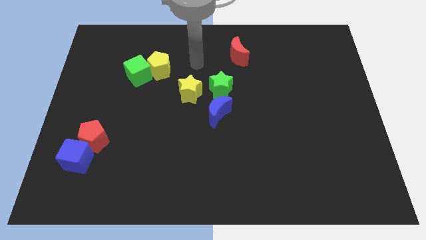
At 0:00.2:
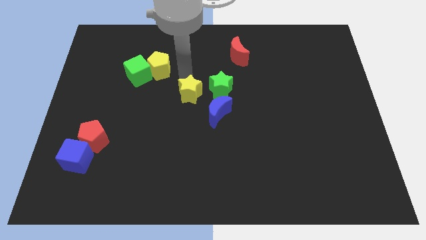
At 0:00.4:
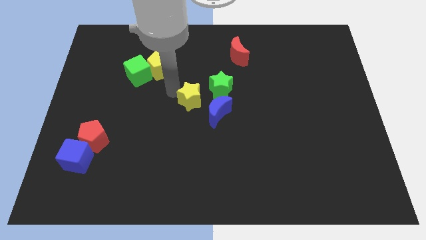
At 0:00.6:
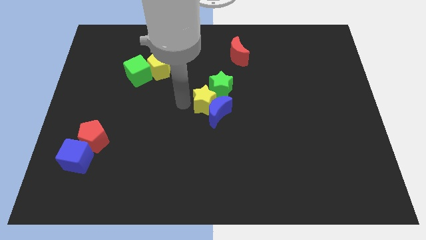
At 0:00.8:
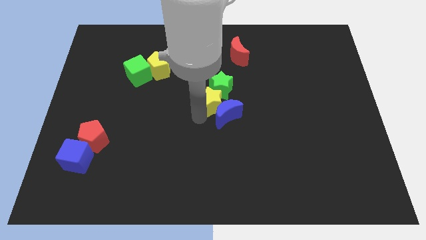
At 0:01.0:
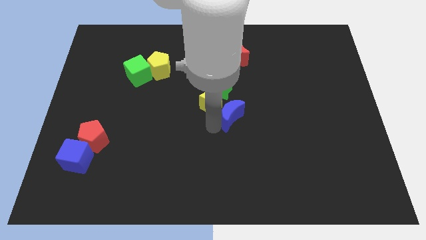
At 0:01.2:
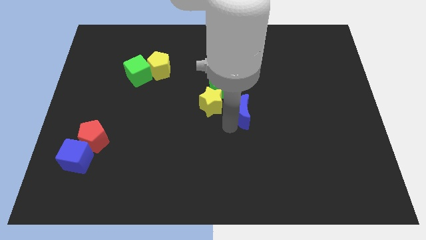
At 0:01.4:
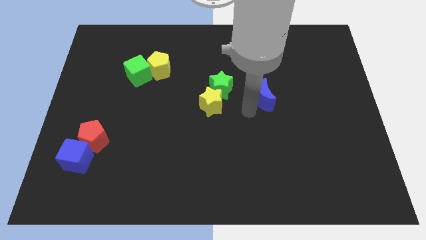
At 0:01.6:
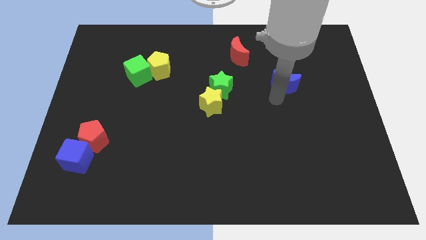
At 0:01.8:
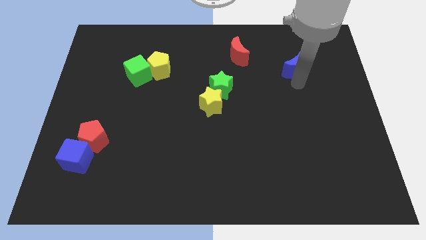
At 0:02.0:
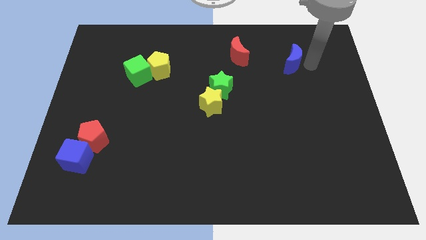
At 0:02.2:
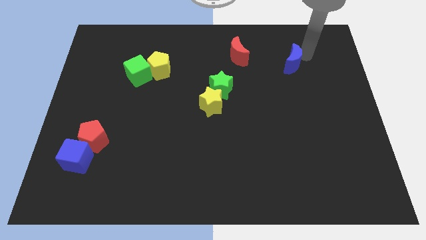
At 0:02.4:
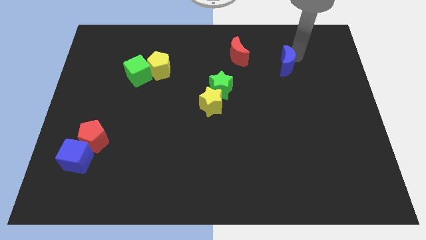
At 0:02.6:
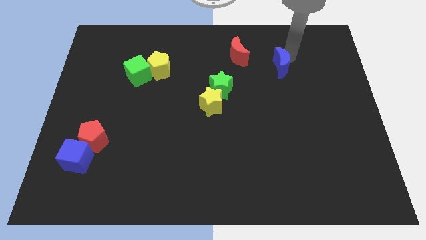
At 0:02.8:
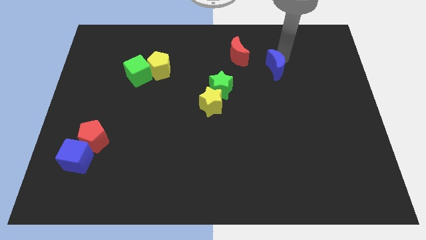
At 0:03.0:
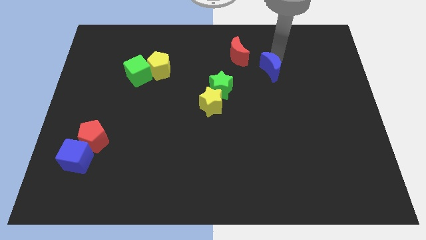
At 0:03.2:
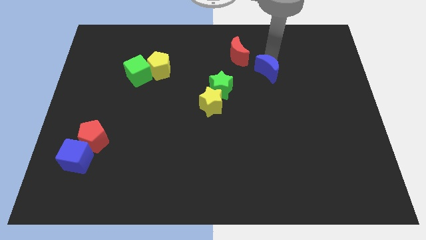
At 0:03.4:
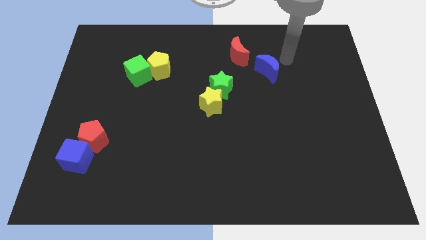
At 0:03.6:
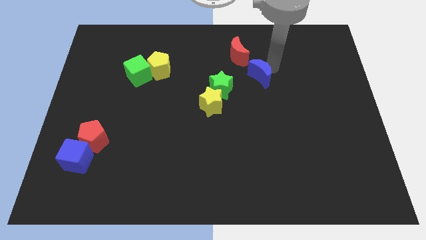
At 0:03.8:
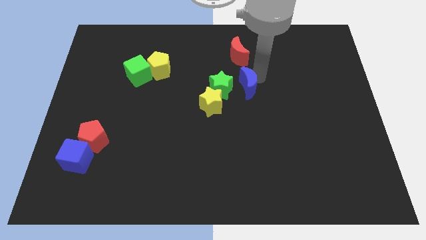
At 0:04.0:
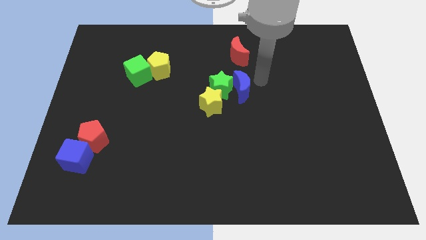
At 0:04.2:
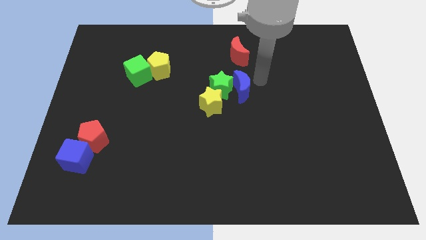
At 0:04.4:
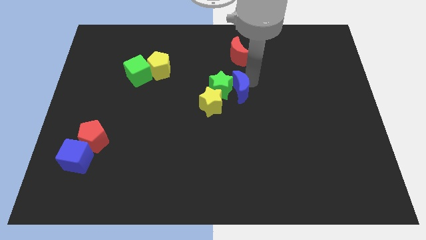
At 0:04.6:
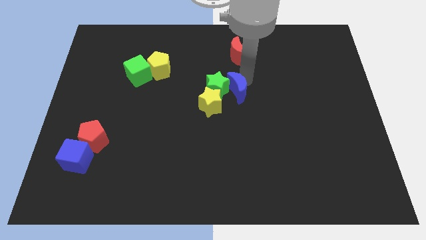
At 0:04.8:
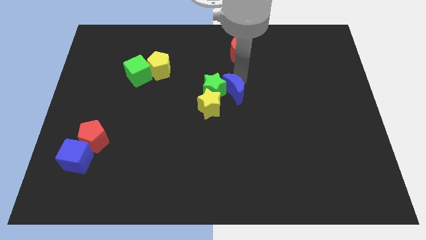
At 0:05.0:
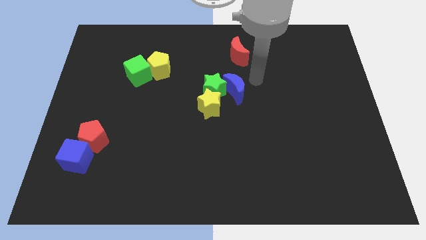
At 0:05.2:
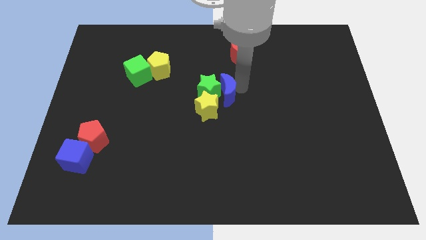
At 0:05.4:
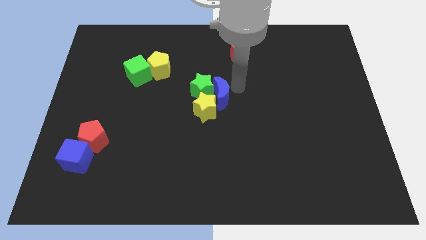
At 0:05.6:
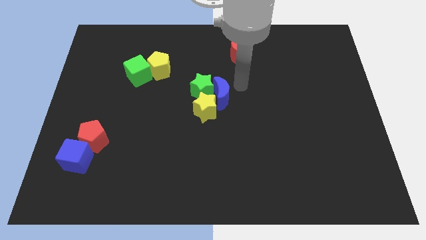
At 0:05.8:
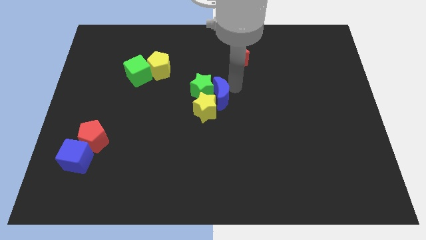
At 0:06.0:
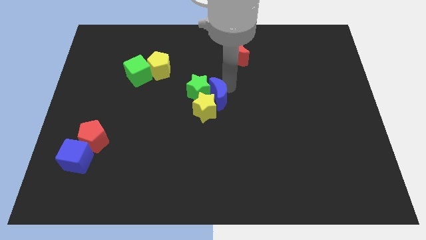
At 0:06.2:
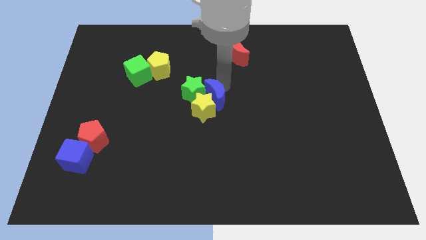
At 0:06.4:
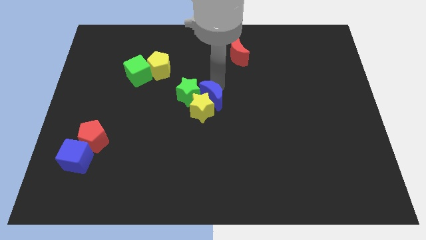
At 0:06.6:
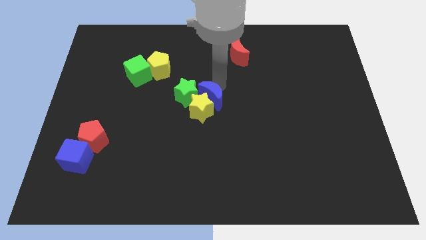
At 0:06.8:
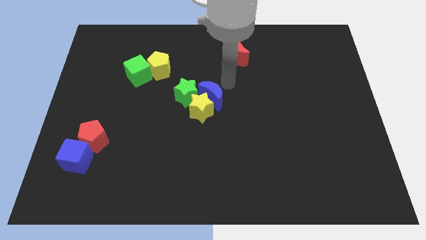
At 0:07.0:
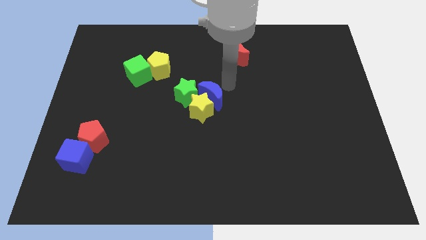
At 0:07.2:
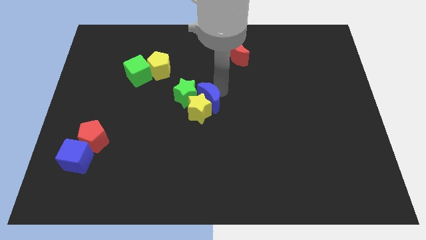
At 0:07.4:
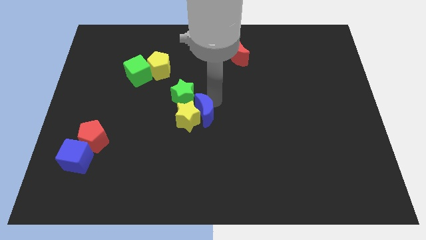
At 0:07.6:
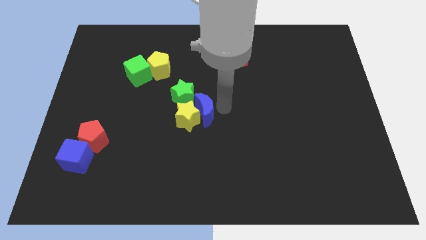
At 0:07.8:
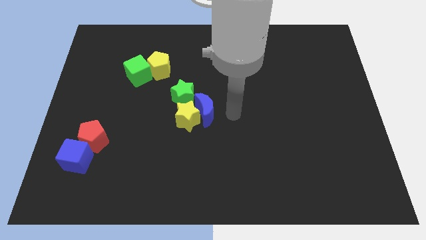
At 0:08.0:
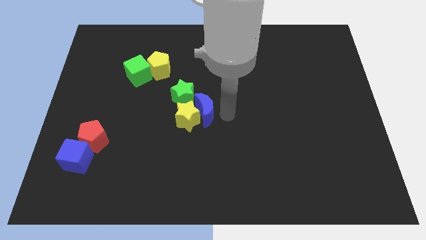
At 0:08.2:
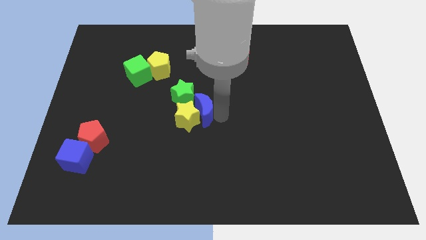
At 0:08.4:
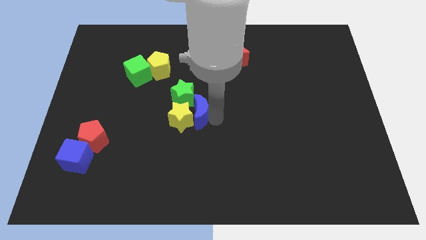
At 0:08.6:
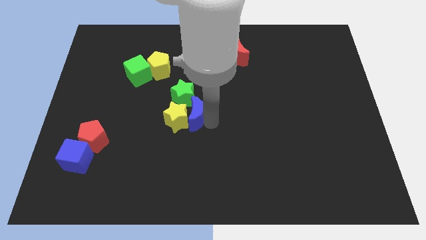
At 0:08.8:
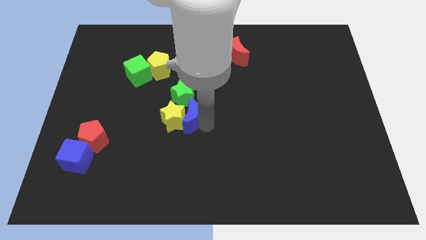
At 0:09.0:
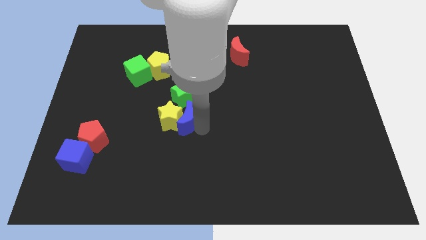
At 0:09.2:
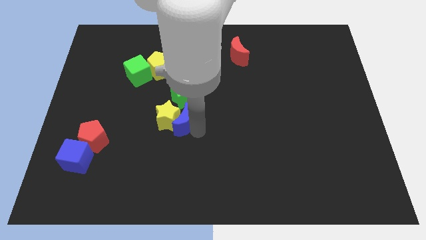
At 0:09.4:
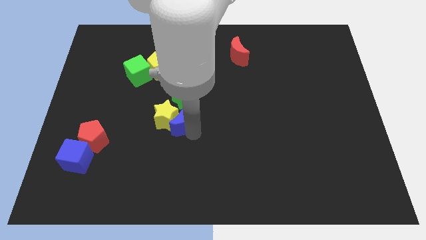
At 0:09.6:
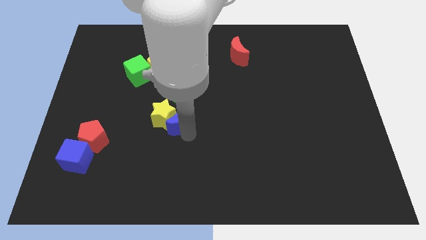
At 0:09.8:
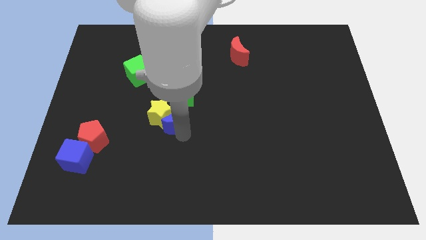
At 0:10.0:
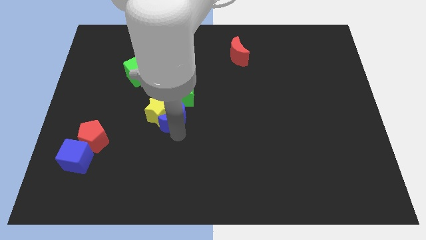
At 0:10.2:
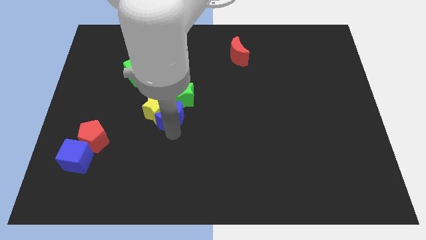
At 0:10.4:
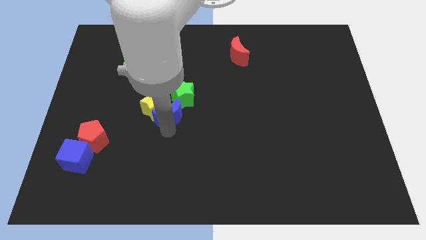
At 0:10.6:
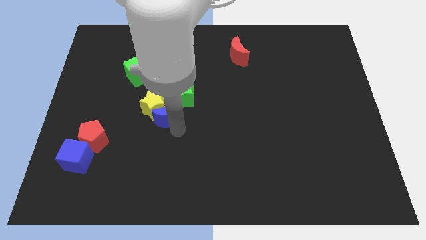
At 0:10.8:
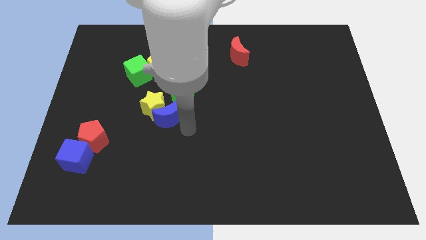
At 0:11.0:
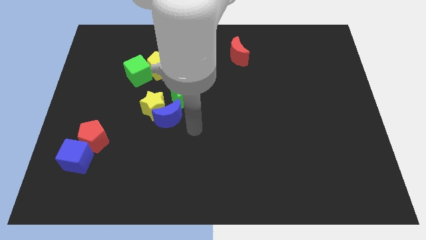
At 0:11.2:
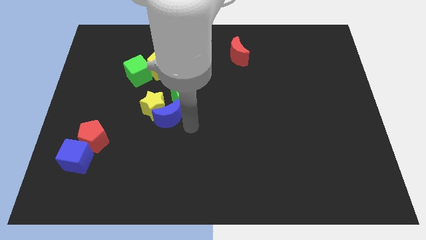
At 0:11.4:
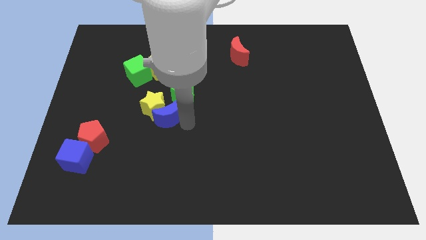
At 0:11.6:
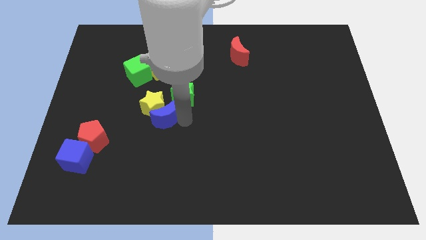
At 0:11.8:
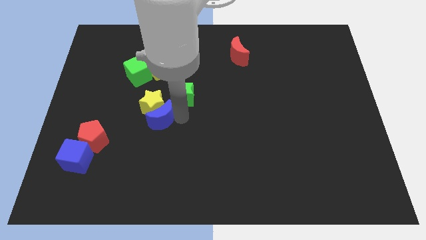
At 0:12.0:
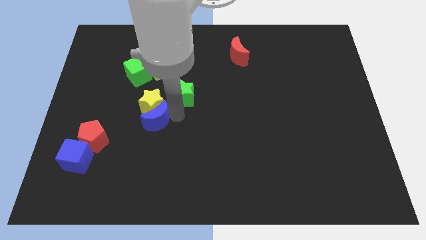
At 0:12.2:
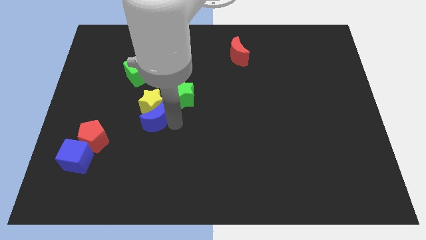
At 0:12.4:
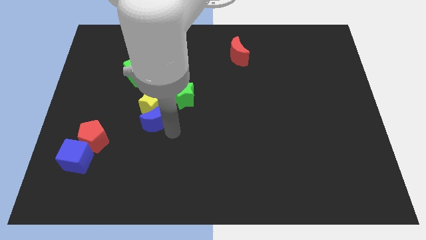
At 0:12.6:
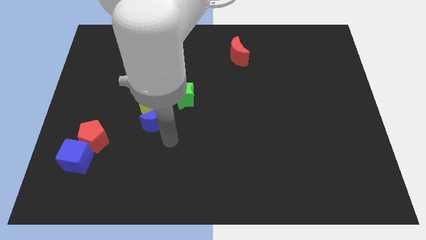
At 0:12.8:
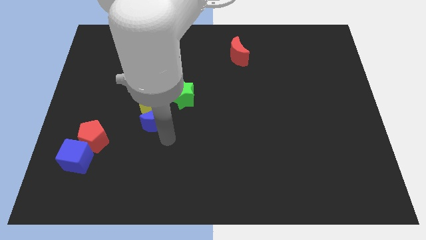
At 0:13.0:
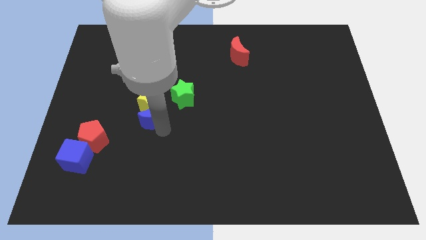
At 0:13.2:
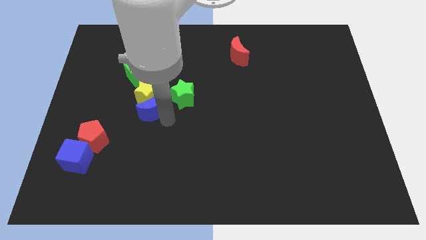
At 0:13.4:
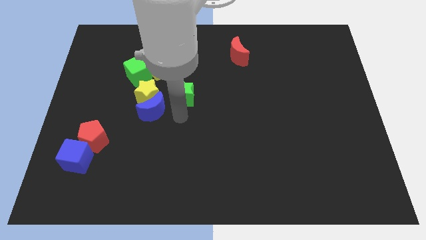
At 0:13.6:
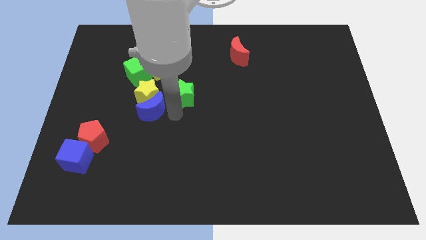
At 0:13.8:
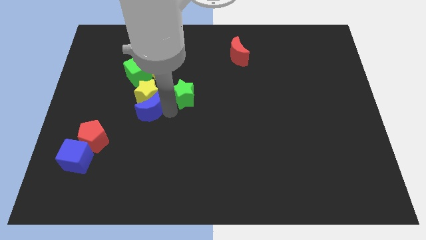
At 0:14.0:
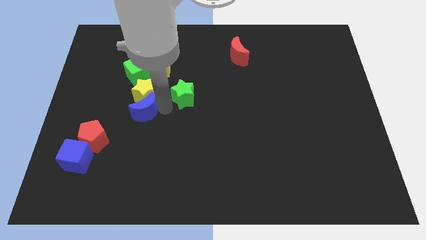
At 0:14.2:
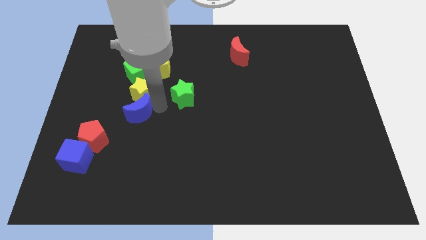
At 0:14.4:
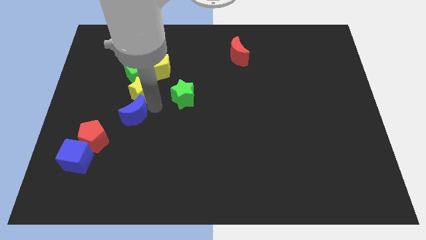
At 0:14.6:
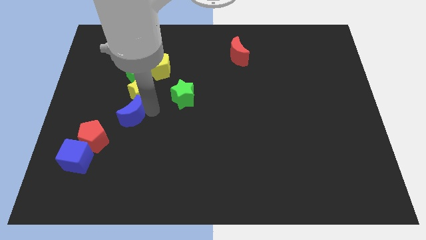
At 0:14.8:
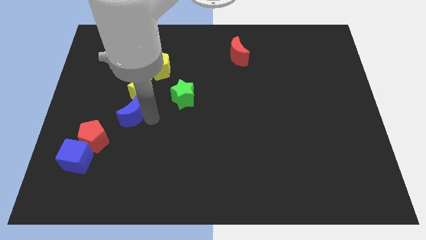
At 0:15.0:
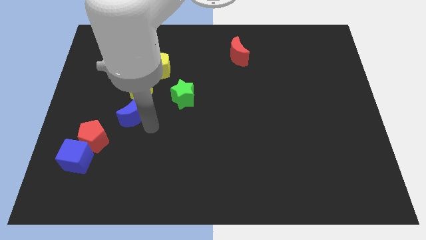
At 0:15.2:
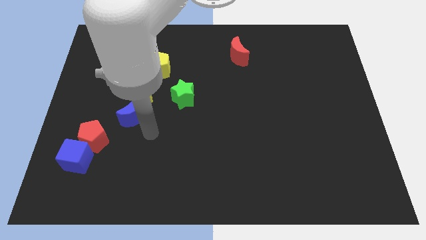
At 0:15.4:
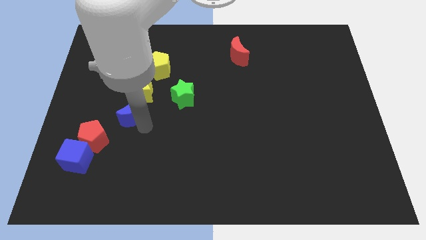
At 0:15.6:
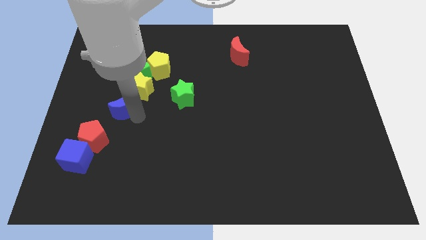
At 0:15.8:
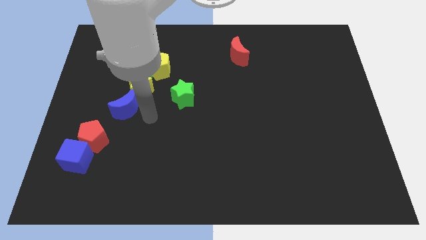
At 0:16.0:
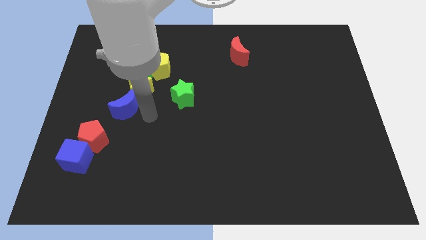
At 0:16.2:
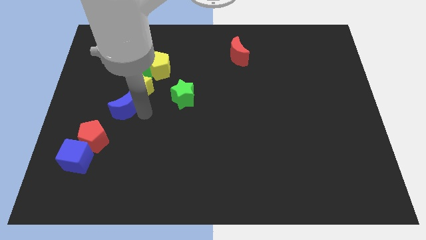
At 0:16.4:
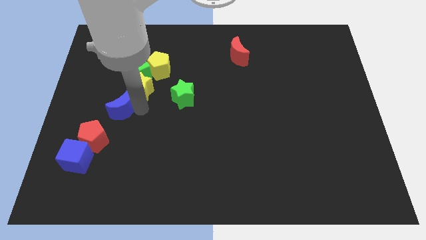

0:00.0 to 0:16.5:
slide the blue moon above the red pentagon
